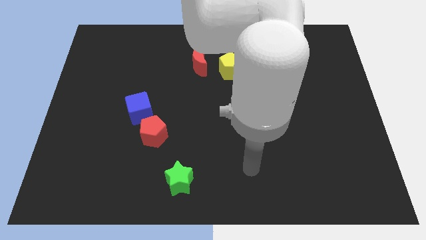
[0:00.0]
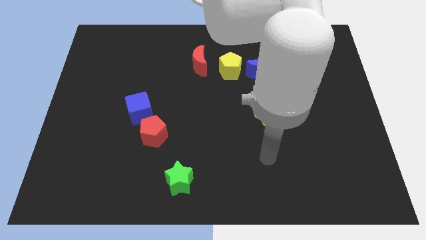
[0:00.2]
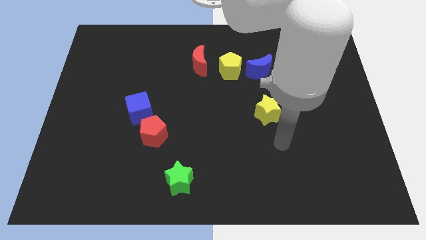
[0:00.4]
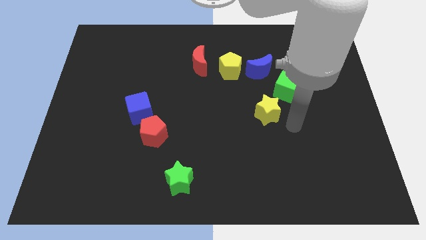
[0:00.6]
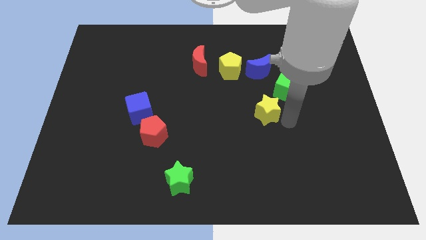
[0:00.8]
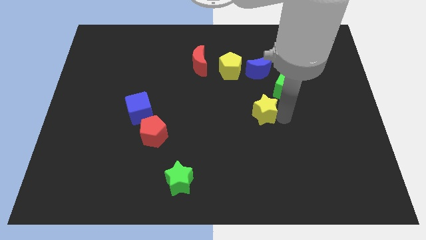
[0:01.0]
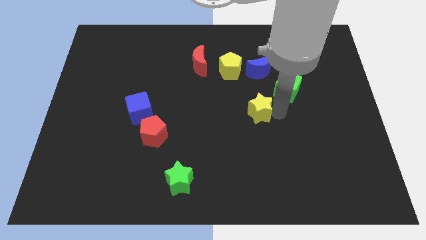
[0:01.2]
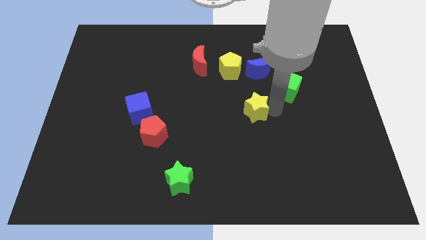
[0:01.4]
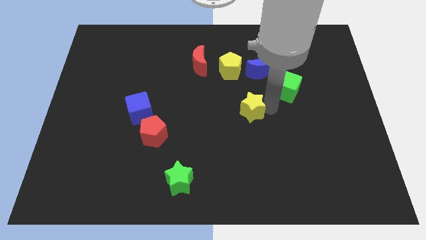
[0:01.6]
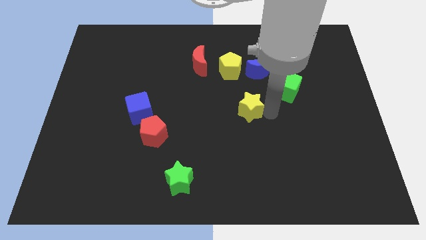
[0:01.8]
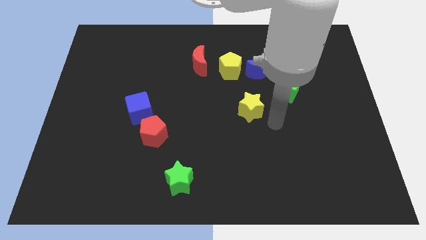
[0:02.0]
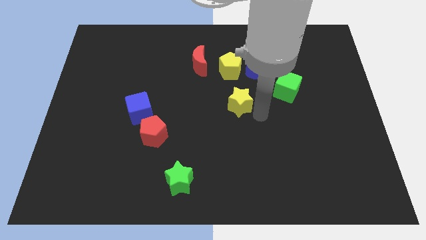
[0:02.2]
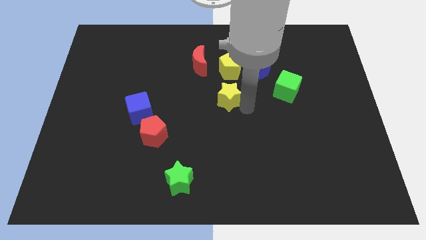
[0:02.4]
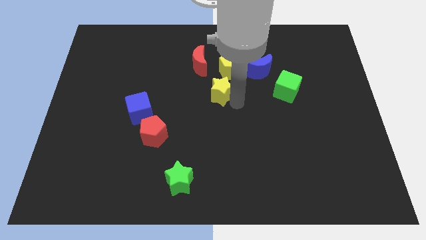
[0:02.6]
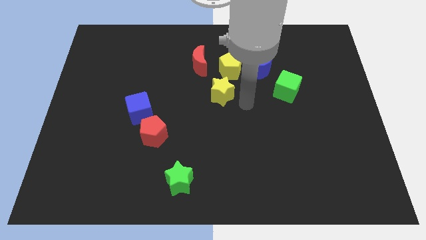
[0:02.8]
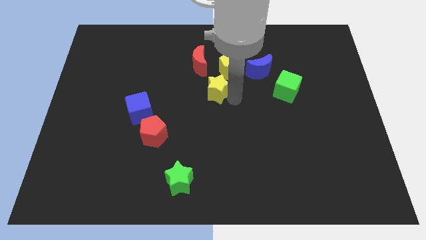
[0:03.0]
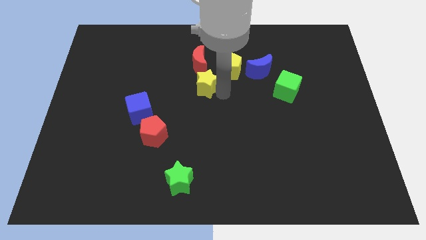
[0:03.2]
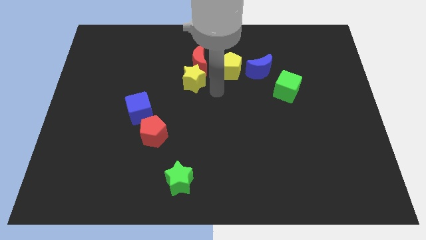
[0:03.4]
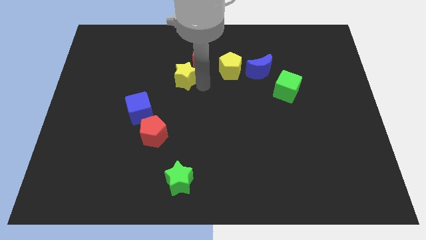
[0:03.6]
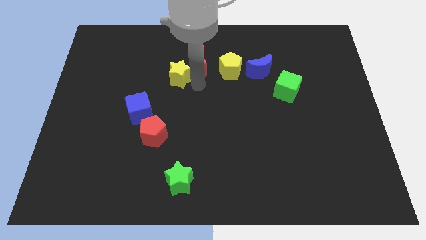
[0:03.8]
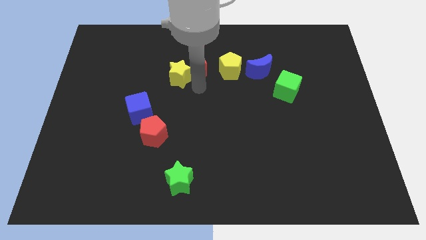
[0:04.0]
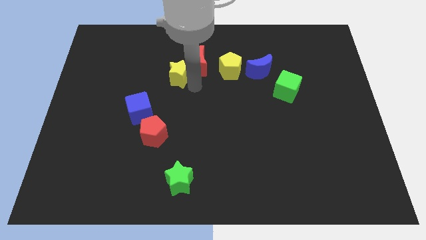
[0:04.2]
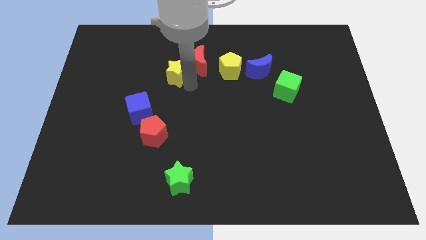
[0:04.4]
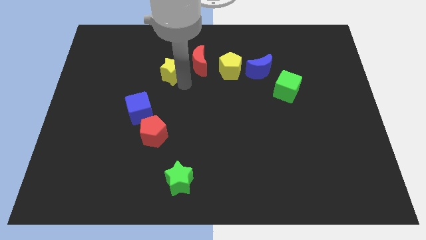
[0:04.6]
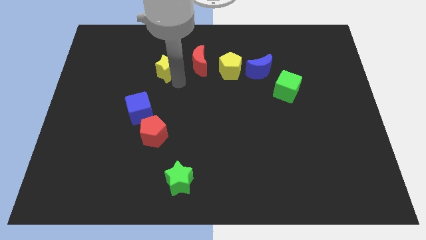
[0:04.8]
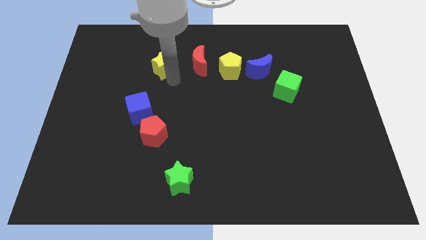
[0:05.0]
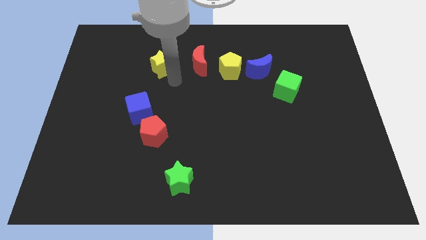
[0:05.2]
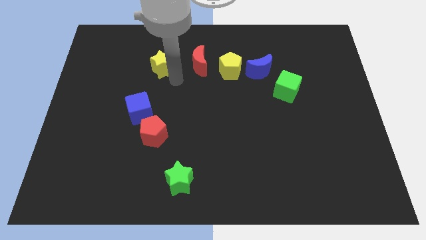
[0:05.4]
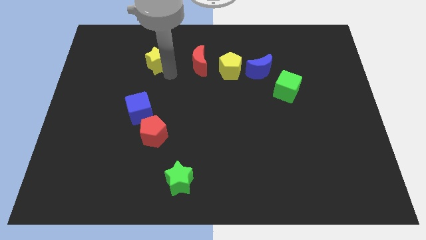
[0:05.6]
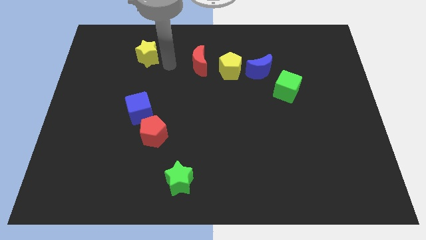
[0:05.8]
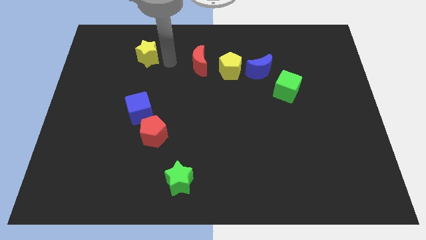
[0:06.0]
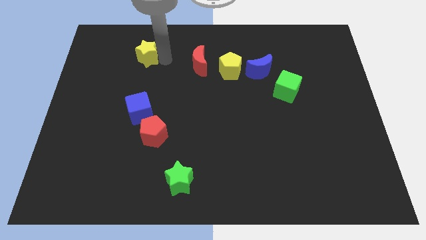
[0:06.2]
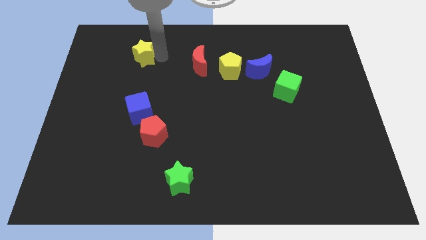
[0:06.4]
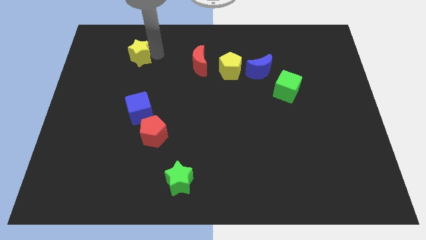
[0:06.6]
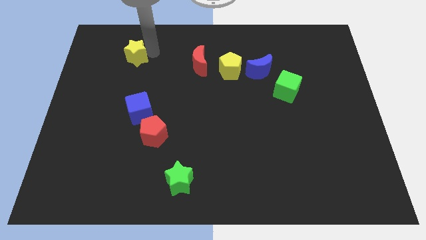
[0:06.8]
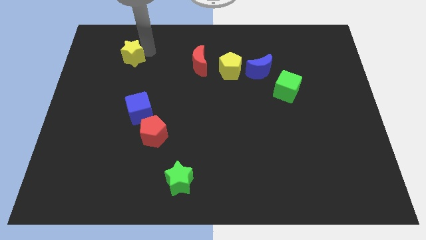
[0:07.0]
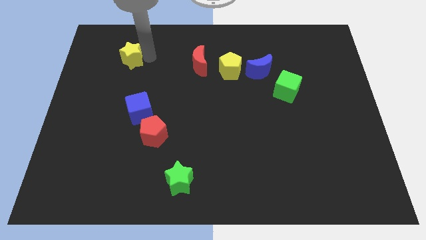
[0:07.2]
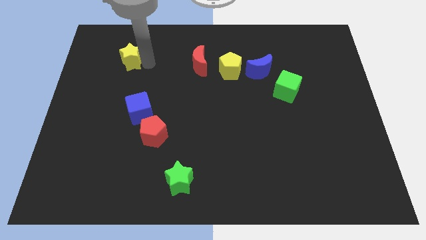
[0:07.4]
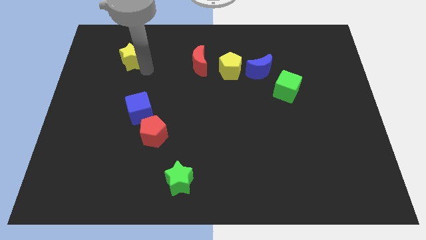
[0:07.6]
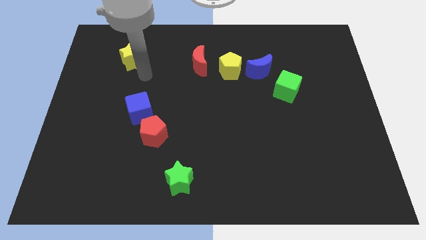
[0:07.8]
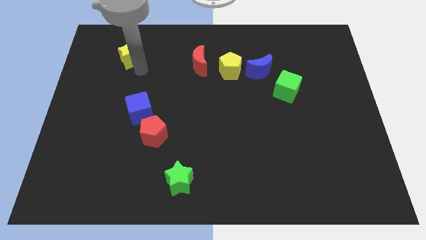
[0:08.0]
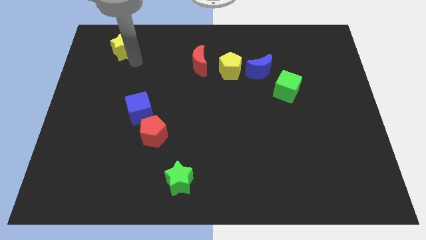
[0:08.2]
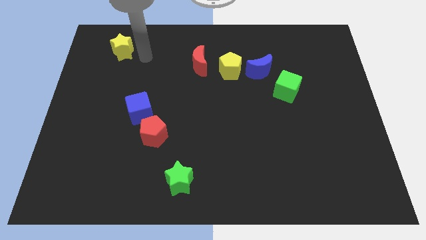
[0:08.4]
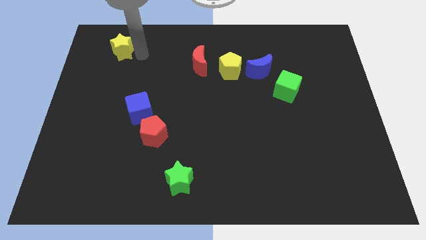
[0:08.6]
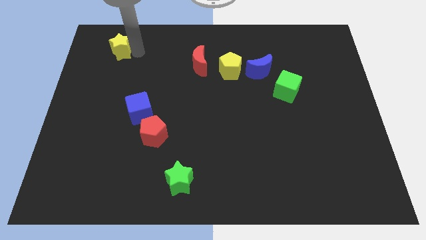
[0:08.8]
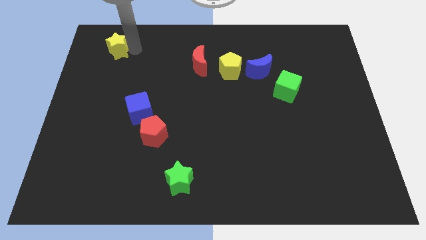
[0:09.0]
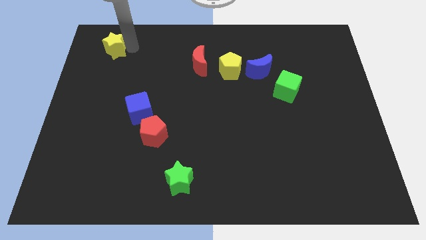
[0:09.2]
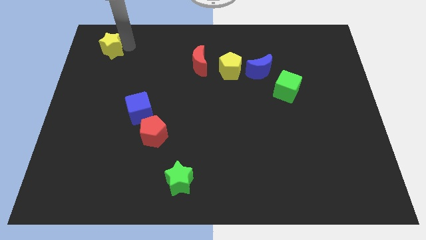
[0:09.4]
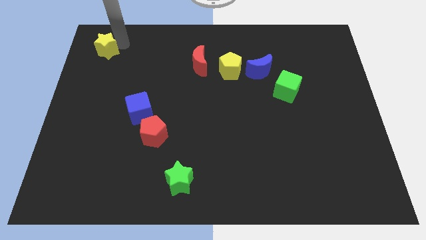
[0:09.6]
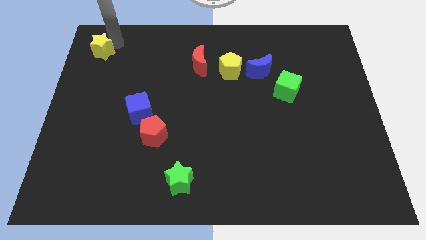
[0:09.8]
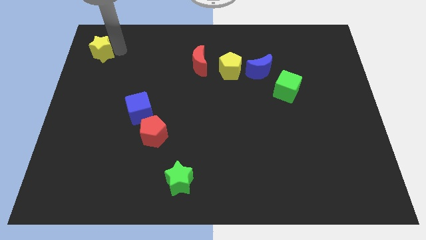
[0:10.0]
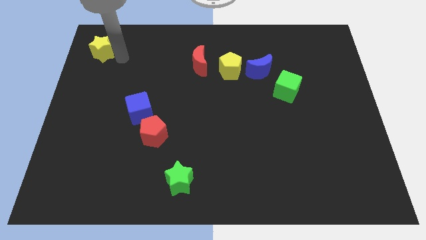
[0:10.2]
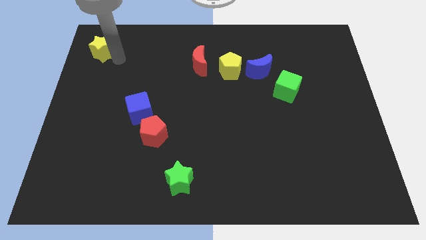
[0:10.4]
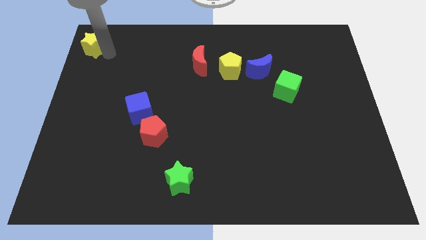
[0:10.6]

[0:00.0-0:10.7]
put the yellow star to the top left of the board

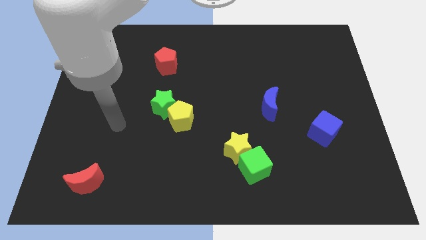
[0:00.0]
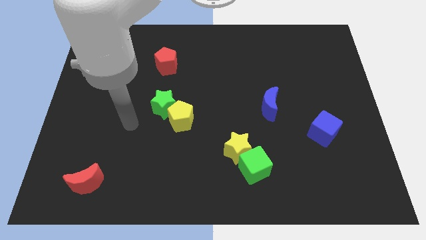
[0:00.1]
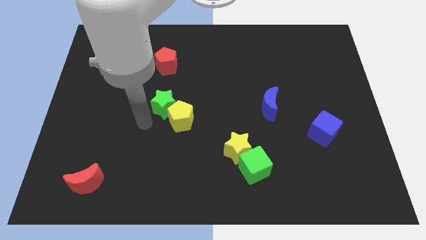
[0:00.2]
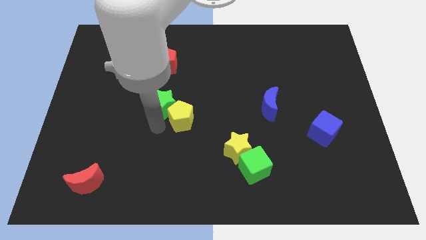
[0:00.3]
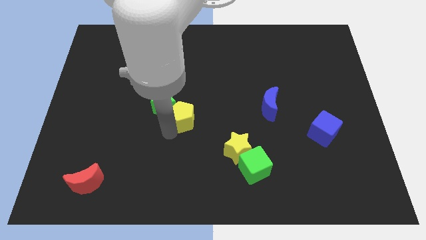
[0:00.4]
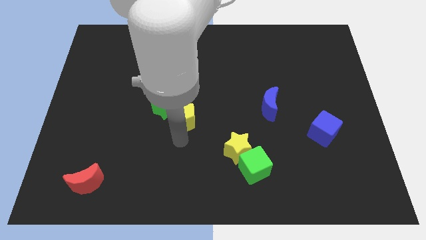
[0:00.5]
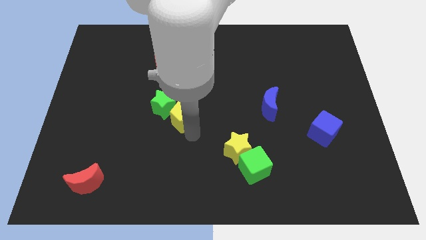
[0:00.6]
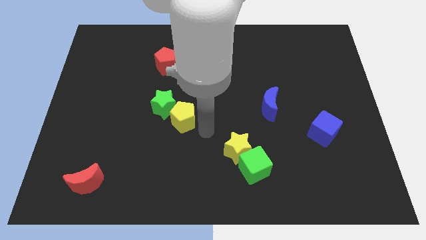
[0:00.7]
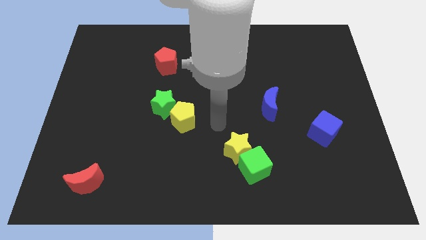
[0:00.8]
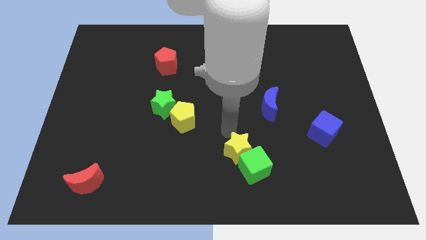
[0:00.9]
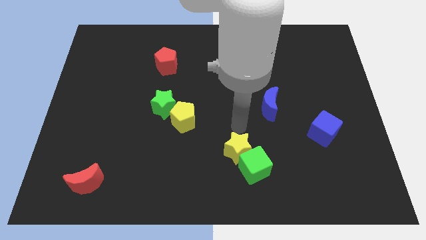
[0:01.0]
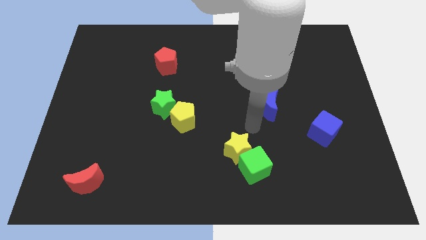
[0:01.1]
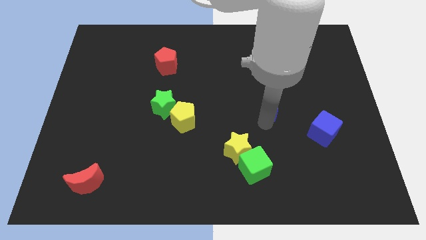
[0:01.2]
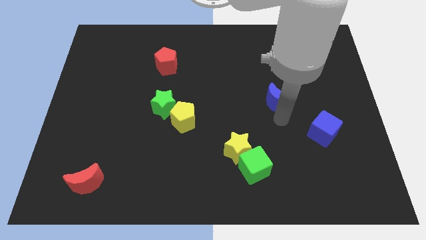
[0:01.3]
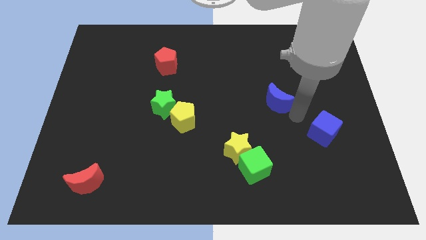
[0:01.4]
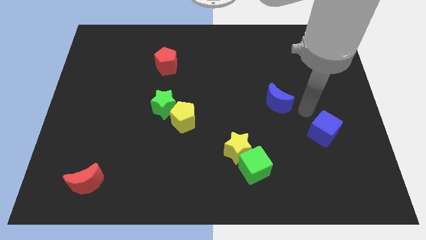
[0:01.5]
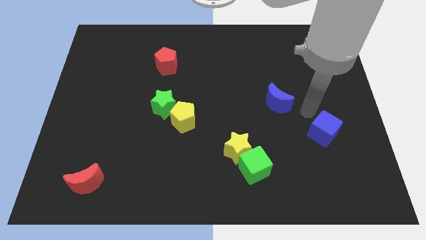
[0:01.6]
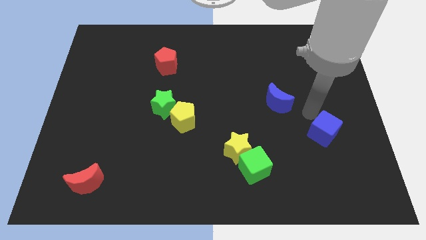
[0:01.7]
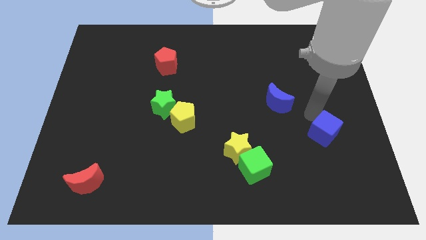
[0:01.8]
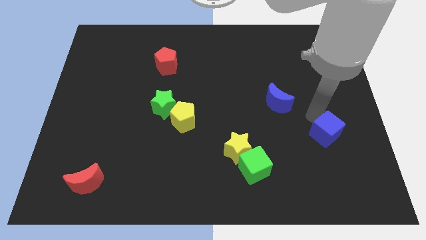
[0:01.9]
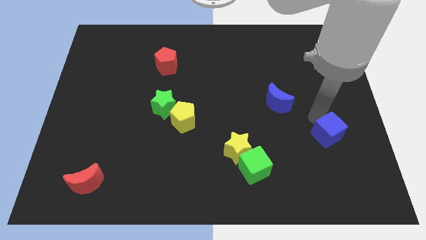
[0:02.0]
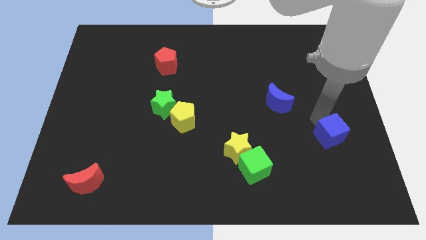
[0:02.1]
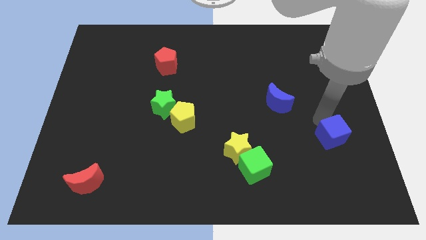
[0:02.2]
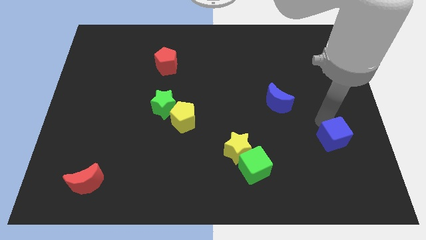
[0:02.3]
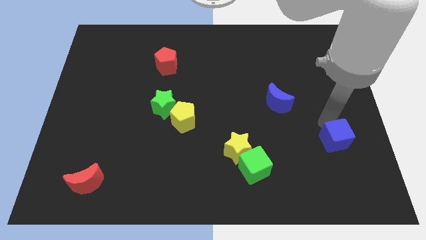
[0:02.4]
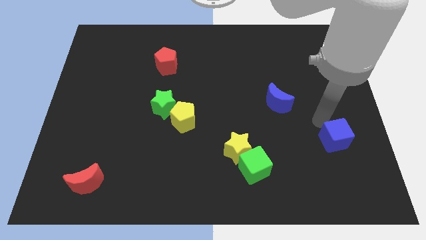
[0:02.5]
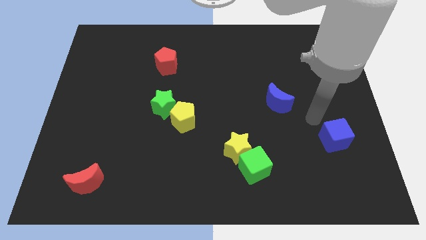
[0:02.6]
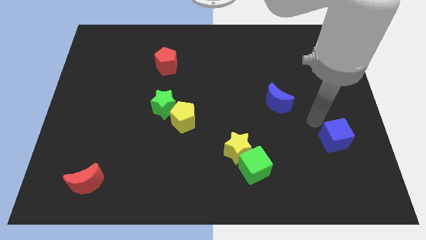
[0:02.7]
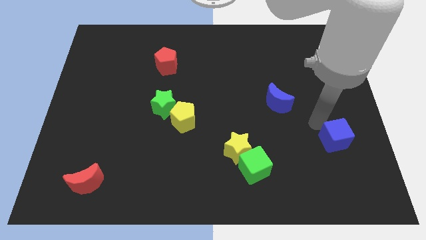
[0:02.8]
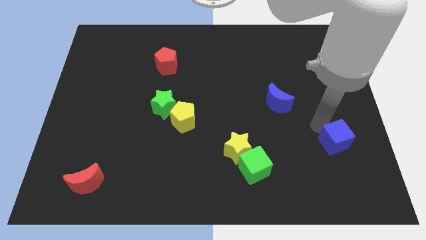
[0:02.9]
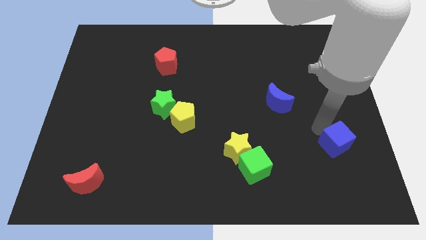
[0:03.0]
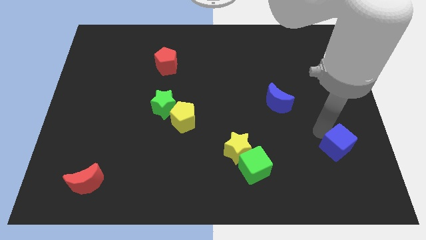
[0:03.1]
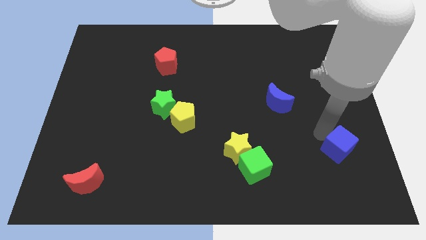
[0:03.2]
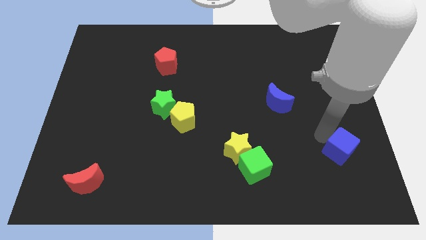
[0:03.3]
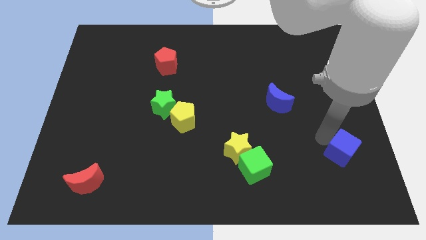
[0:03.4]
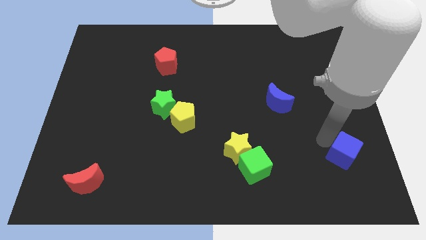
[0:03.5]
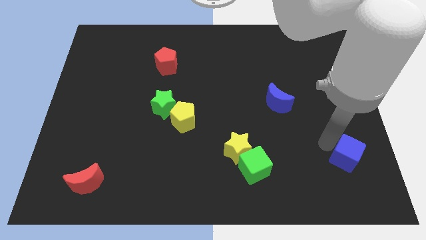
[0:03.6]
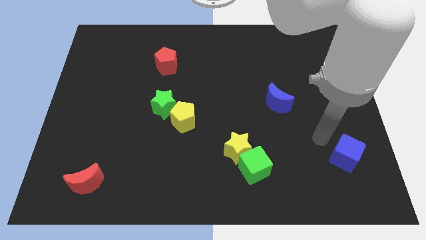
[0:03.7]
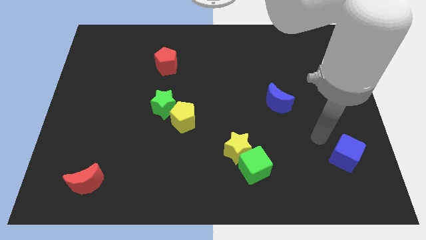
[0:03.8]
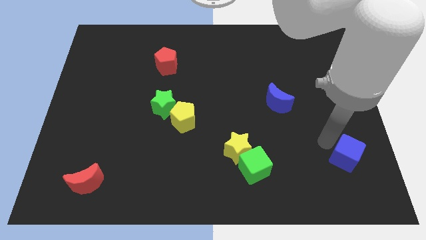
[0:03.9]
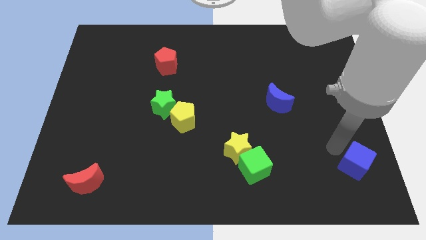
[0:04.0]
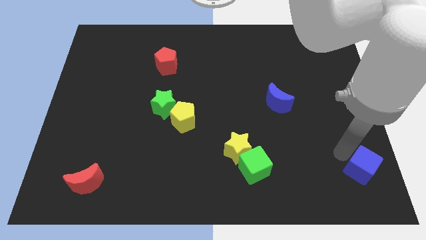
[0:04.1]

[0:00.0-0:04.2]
move the blue cube to the bottom right of the board
